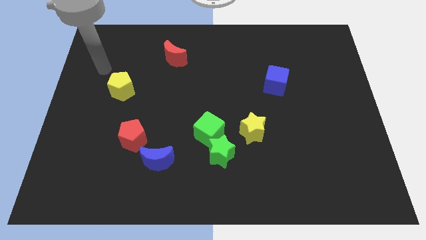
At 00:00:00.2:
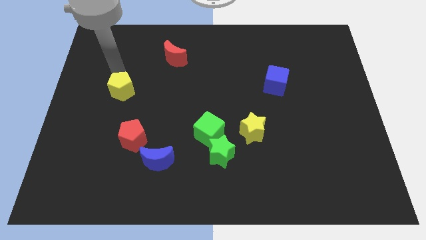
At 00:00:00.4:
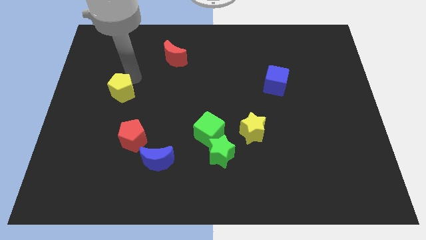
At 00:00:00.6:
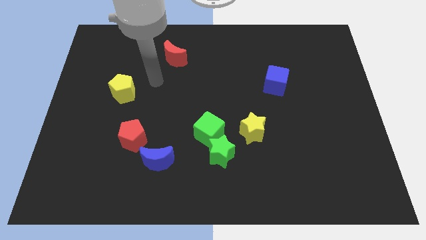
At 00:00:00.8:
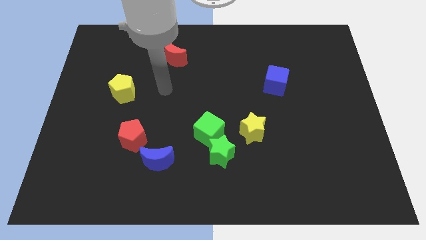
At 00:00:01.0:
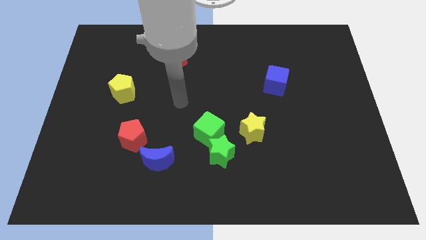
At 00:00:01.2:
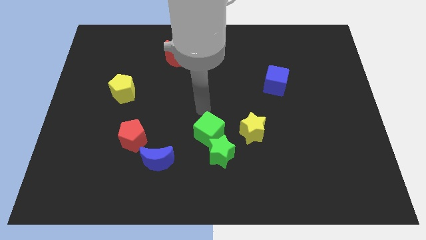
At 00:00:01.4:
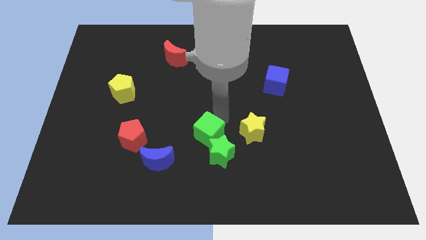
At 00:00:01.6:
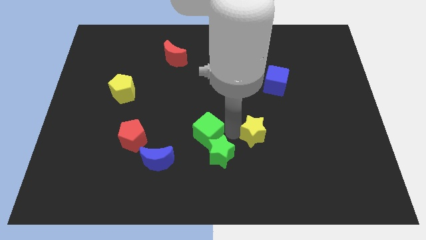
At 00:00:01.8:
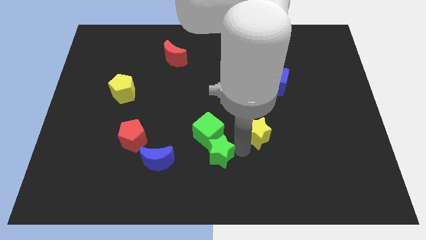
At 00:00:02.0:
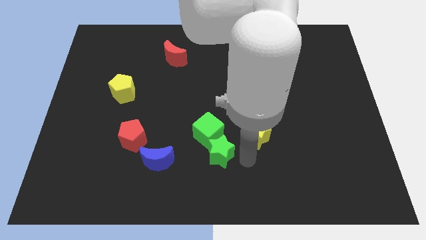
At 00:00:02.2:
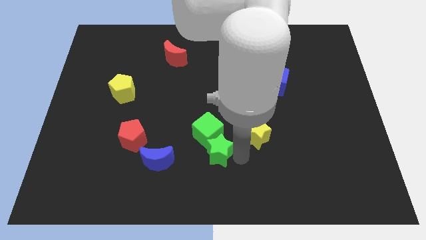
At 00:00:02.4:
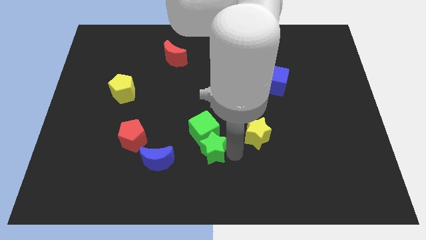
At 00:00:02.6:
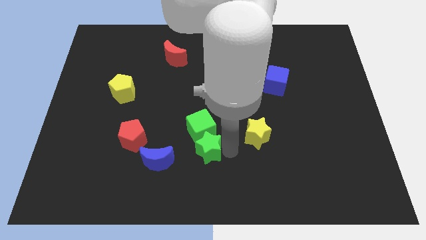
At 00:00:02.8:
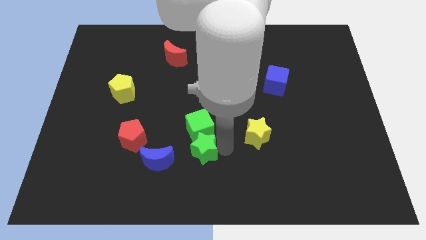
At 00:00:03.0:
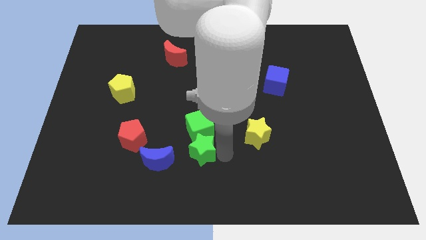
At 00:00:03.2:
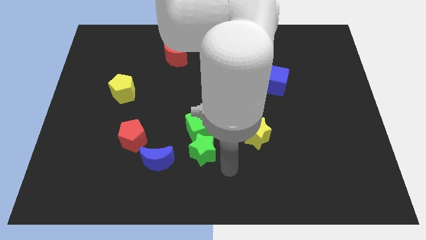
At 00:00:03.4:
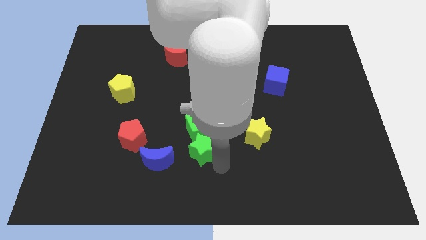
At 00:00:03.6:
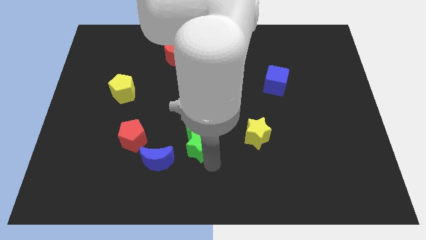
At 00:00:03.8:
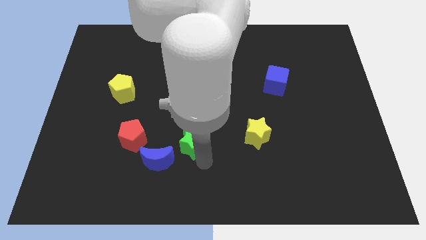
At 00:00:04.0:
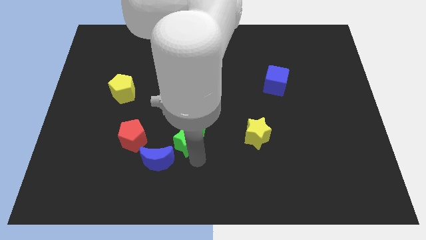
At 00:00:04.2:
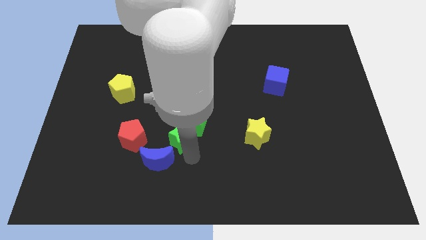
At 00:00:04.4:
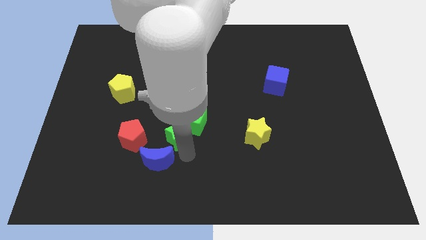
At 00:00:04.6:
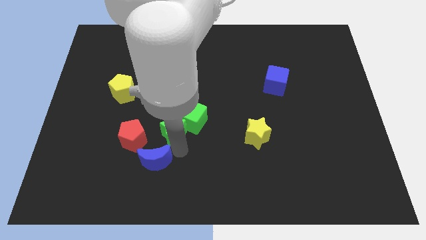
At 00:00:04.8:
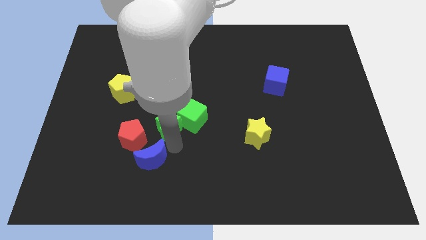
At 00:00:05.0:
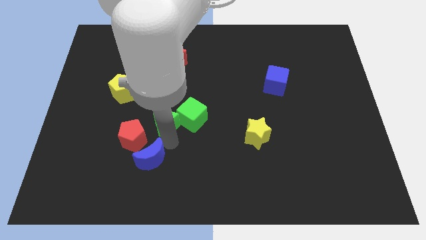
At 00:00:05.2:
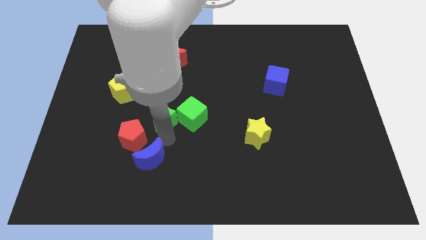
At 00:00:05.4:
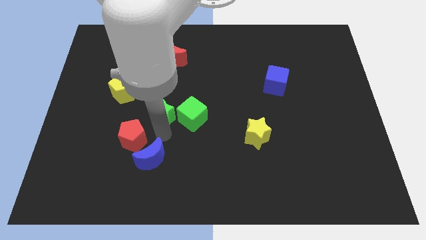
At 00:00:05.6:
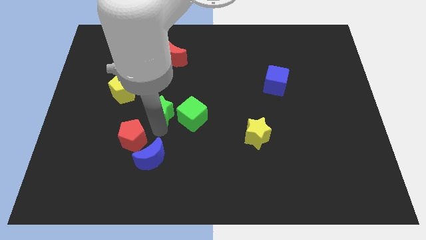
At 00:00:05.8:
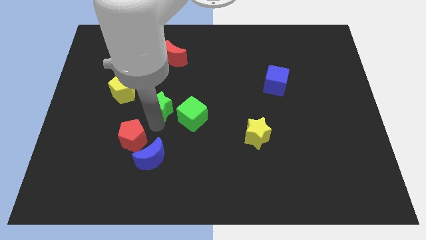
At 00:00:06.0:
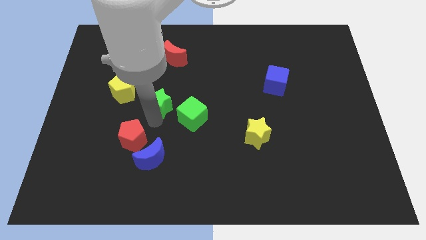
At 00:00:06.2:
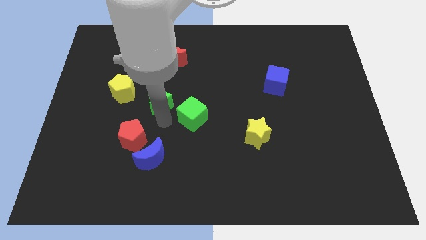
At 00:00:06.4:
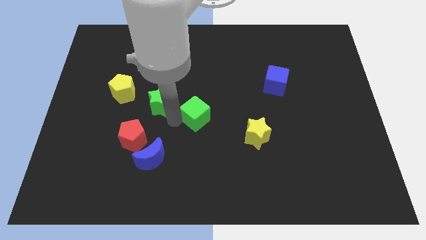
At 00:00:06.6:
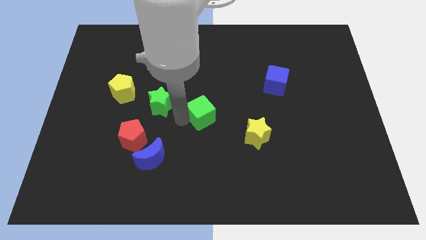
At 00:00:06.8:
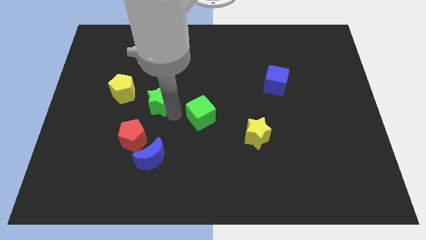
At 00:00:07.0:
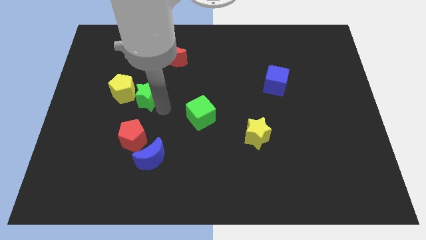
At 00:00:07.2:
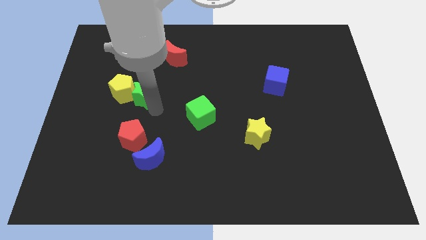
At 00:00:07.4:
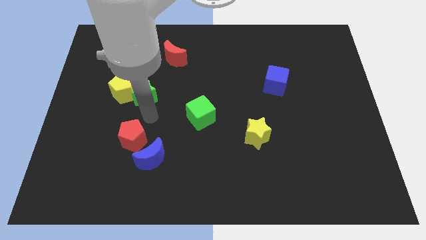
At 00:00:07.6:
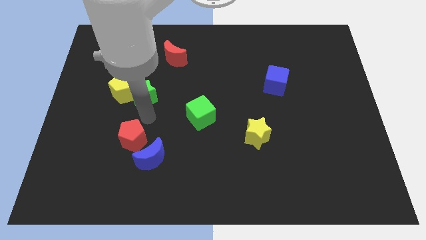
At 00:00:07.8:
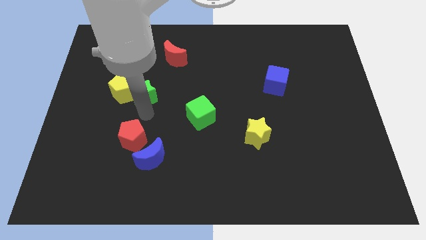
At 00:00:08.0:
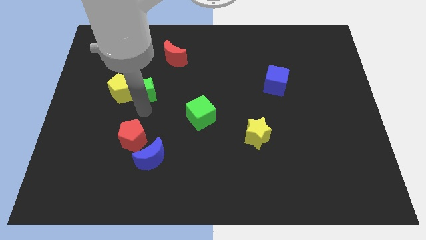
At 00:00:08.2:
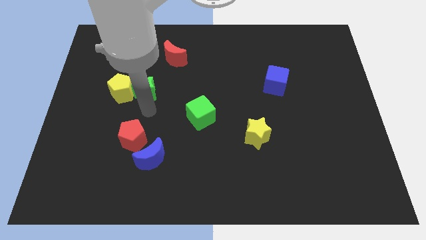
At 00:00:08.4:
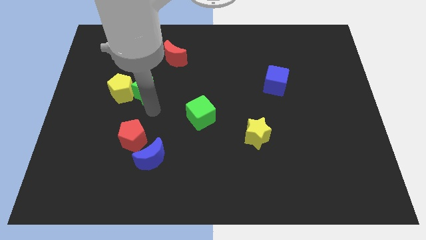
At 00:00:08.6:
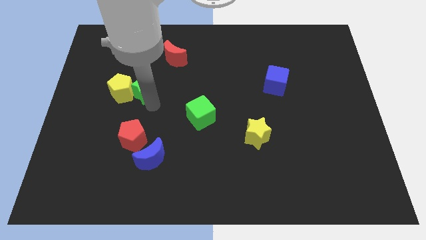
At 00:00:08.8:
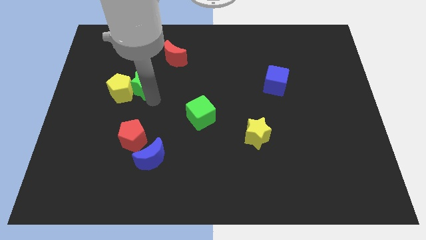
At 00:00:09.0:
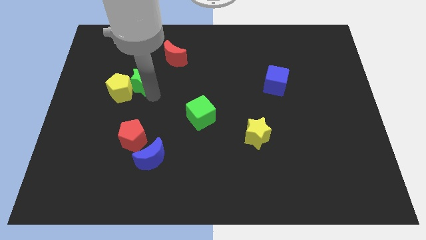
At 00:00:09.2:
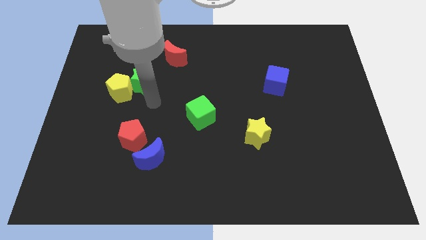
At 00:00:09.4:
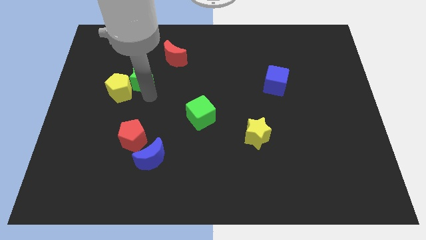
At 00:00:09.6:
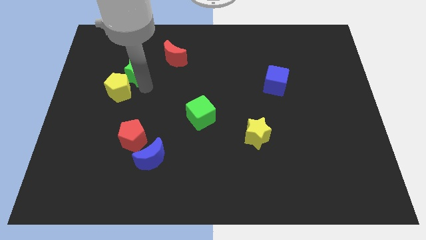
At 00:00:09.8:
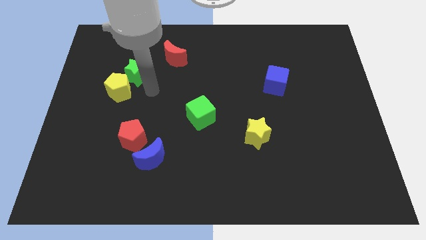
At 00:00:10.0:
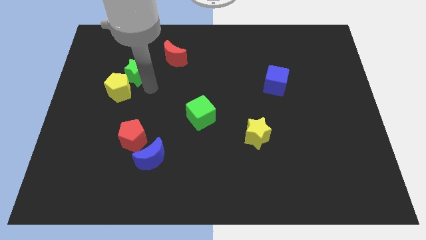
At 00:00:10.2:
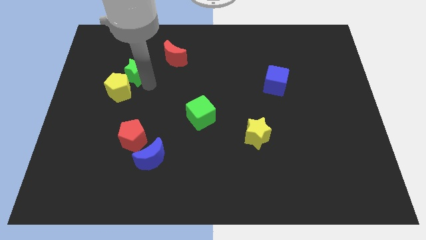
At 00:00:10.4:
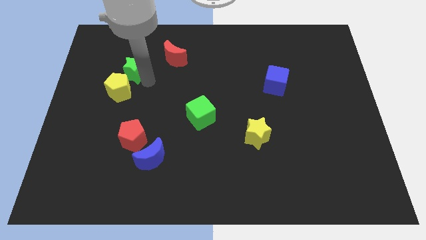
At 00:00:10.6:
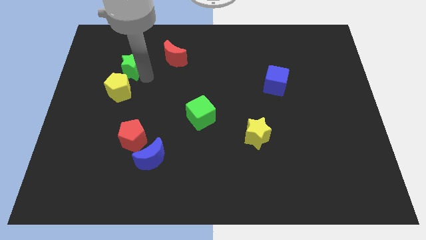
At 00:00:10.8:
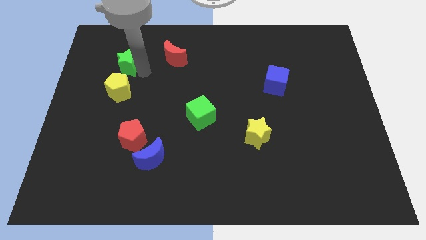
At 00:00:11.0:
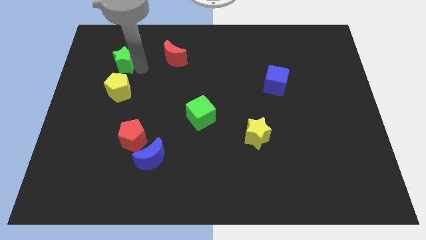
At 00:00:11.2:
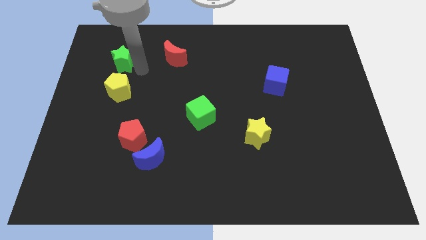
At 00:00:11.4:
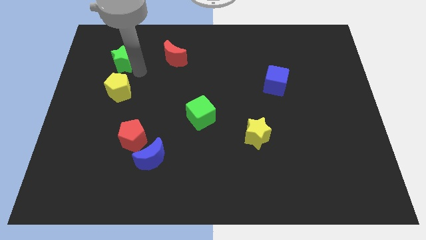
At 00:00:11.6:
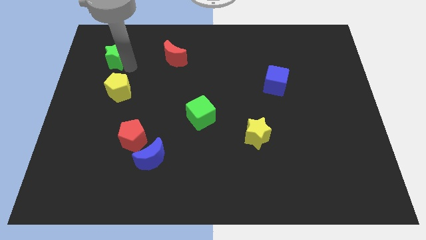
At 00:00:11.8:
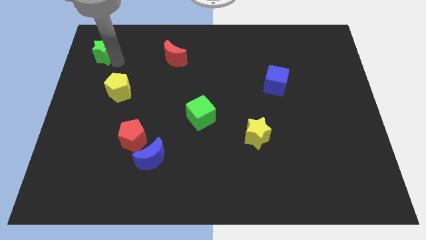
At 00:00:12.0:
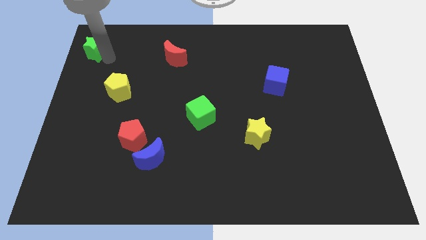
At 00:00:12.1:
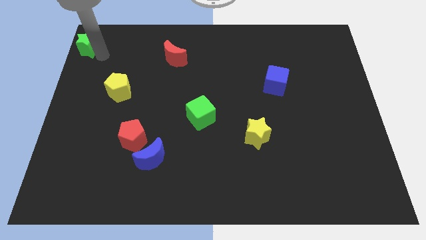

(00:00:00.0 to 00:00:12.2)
push the green star to the top left of the board
